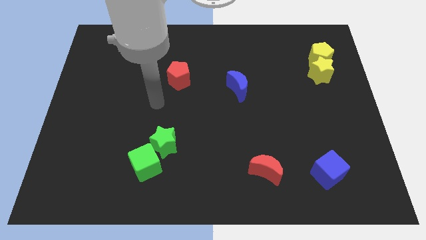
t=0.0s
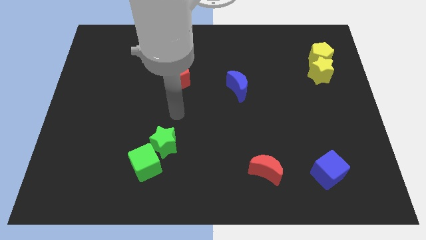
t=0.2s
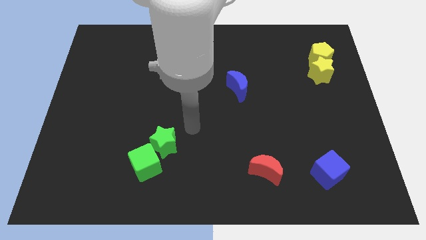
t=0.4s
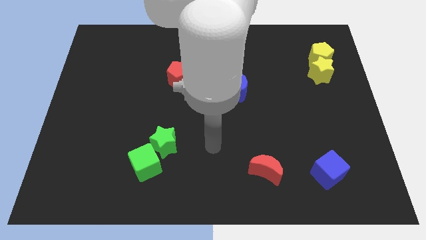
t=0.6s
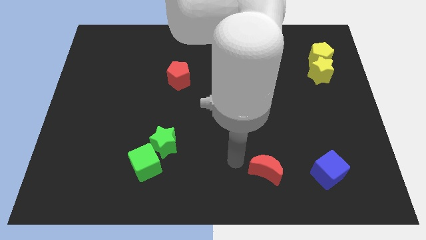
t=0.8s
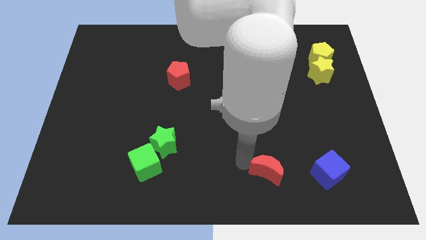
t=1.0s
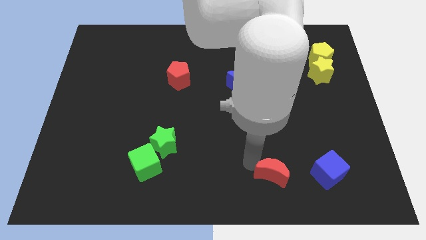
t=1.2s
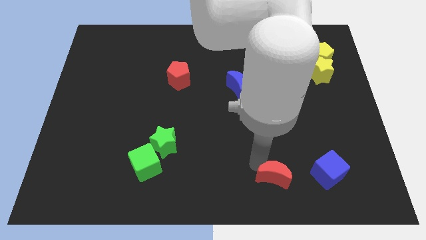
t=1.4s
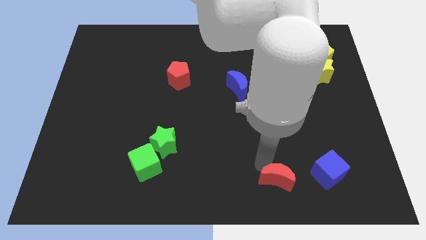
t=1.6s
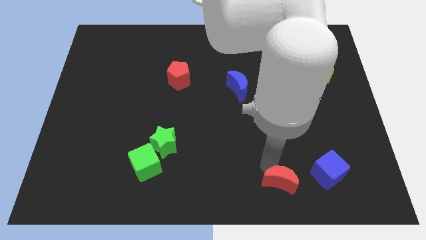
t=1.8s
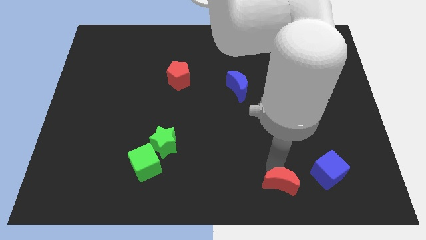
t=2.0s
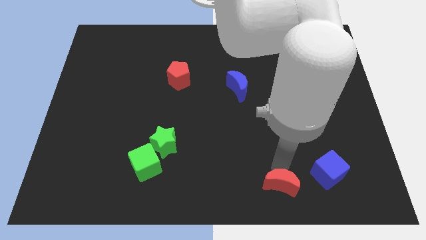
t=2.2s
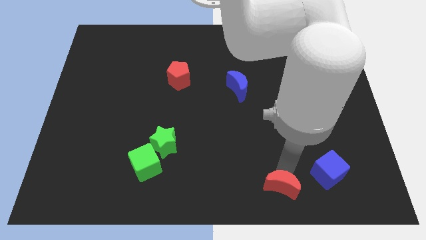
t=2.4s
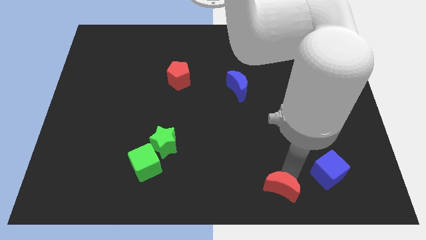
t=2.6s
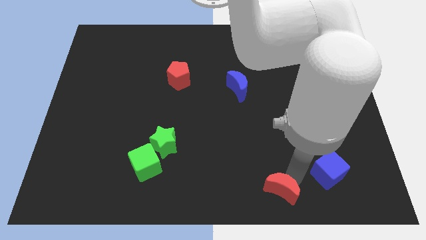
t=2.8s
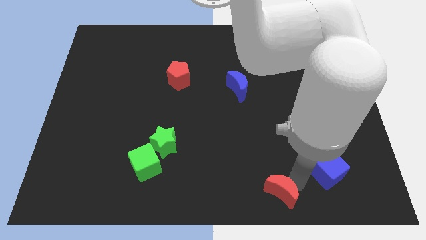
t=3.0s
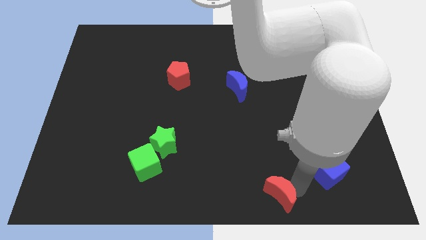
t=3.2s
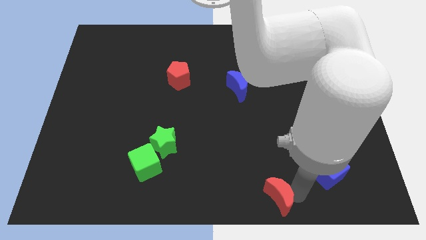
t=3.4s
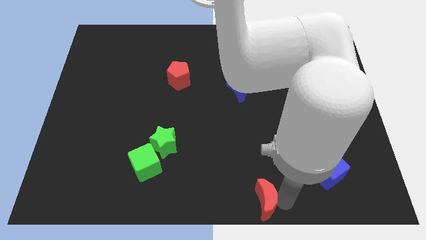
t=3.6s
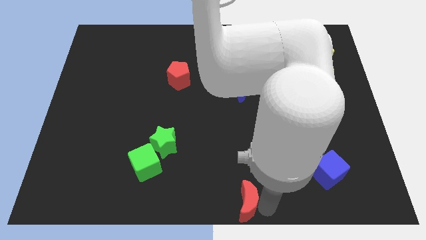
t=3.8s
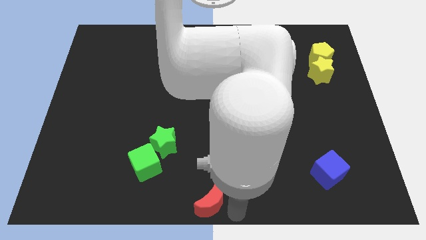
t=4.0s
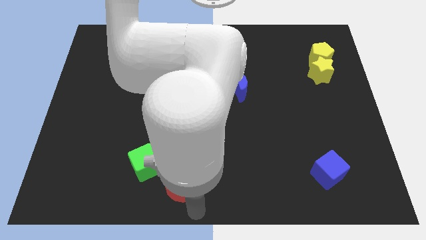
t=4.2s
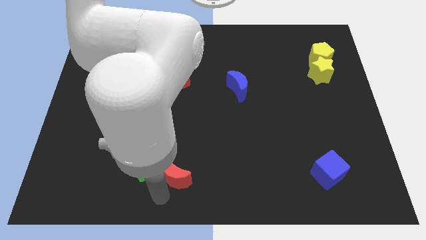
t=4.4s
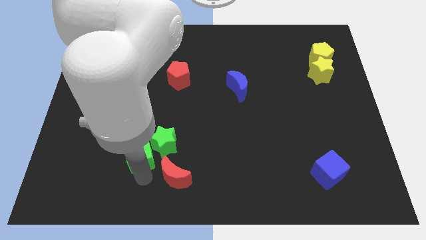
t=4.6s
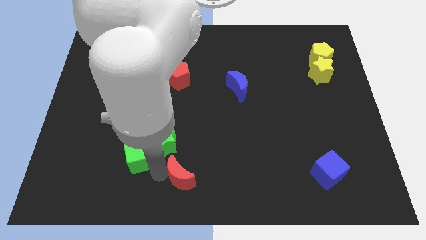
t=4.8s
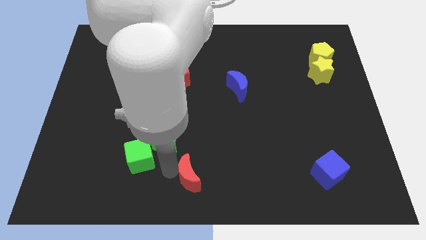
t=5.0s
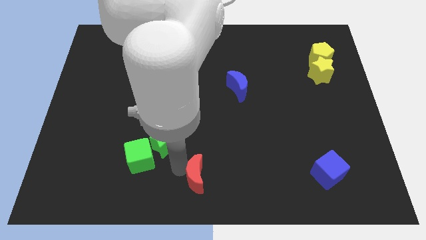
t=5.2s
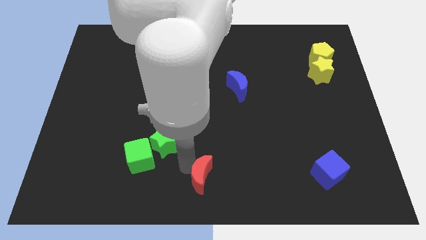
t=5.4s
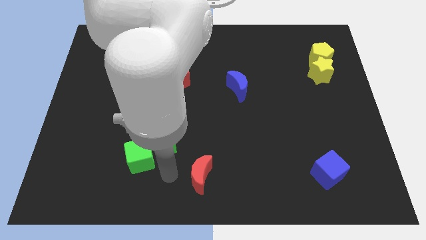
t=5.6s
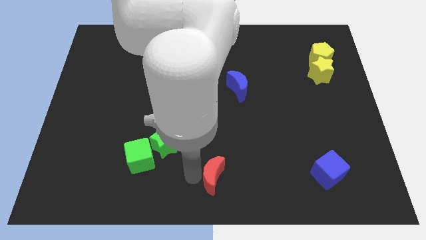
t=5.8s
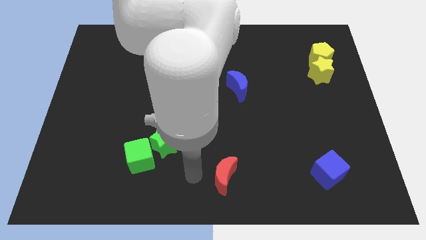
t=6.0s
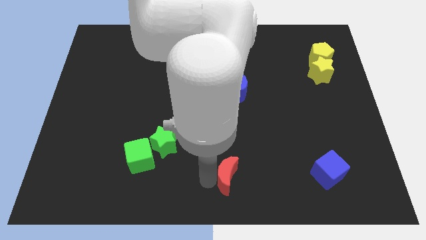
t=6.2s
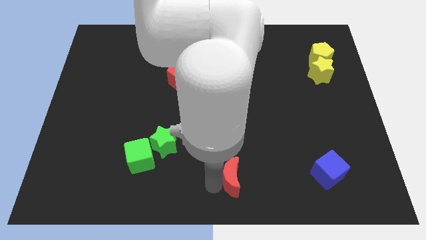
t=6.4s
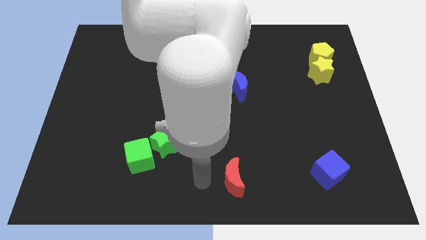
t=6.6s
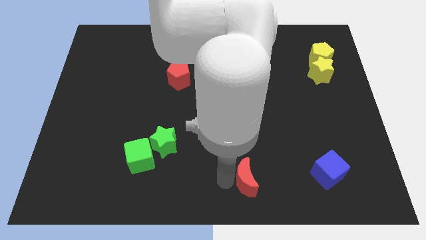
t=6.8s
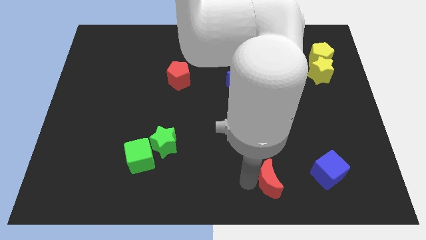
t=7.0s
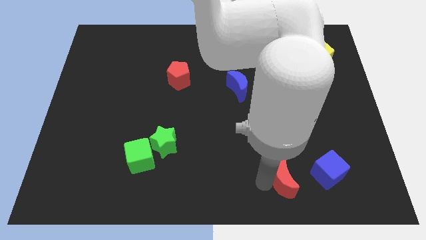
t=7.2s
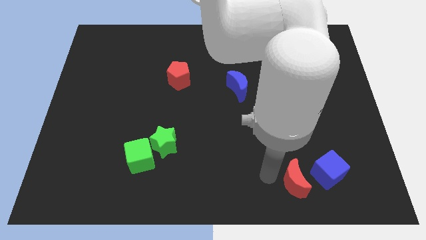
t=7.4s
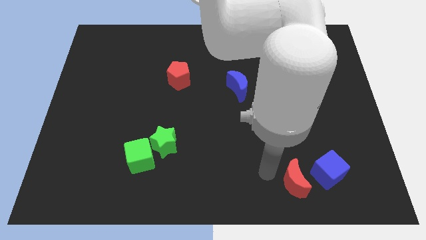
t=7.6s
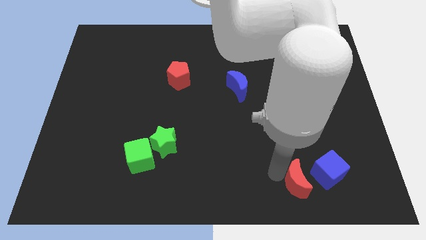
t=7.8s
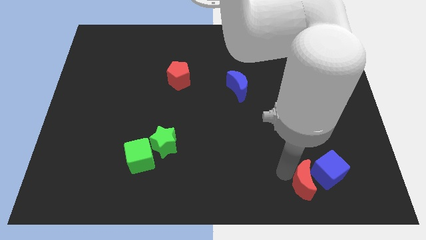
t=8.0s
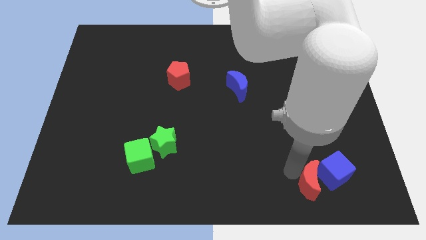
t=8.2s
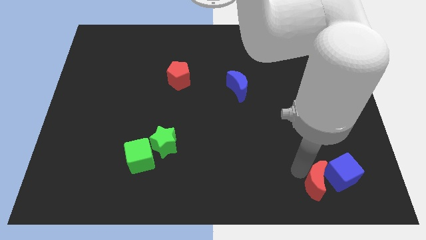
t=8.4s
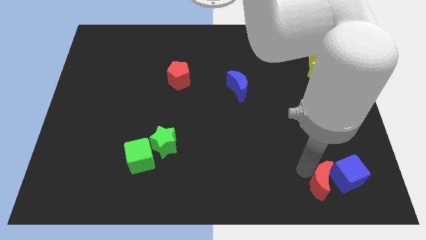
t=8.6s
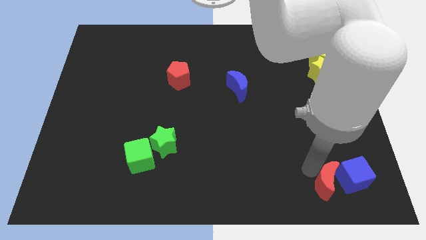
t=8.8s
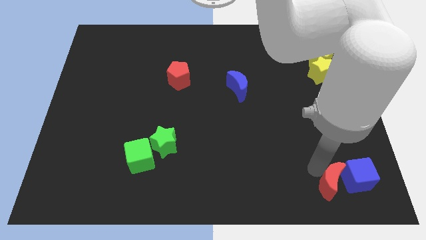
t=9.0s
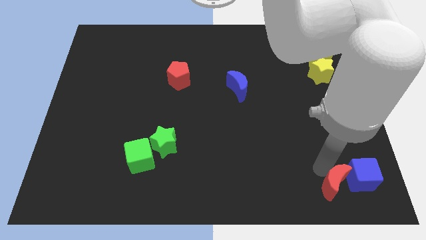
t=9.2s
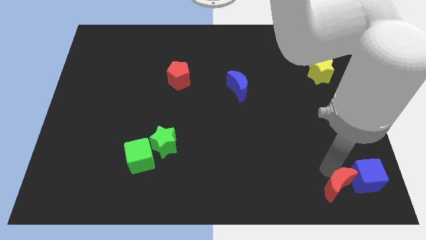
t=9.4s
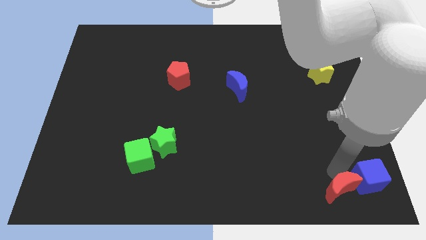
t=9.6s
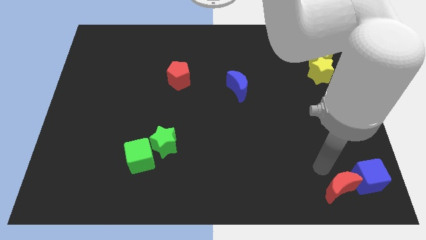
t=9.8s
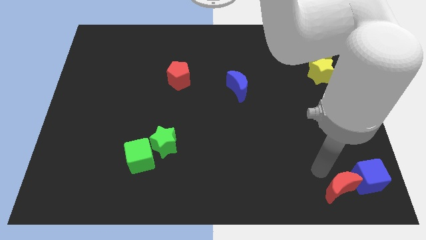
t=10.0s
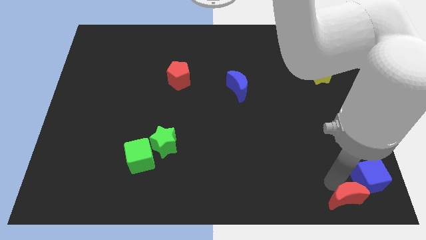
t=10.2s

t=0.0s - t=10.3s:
slide the red moon to the bottom right corner

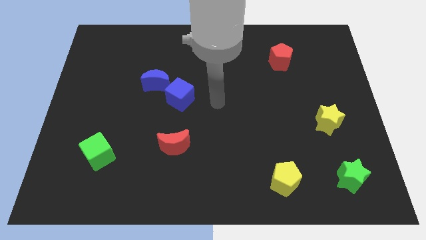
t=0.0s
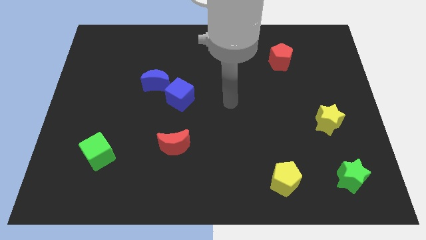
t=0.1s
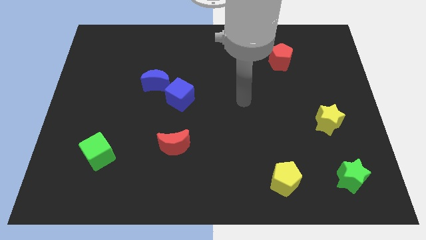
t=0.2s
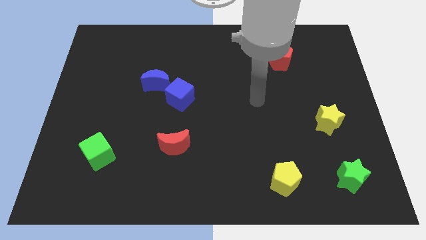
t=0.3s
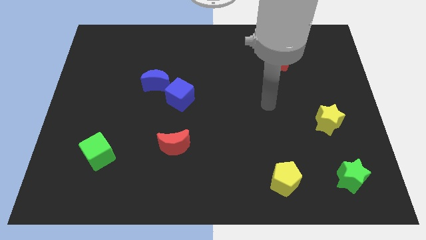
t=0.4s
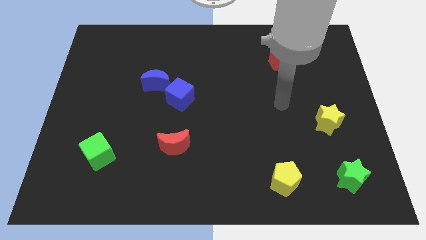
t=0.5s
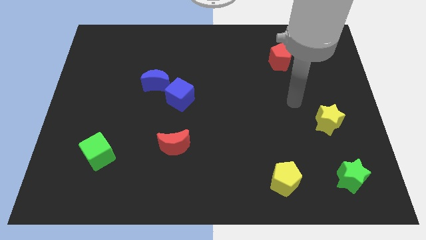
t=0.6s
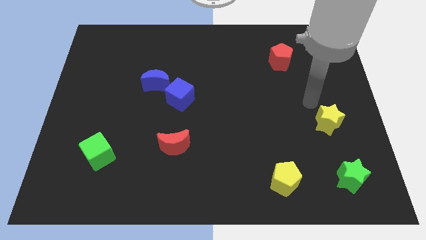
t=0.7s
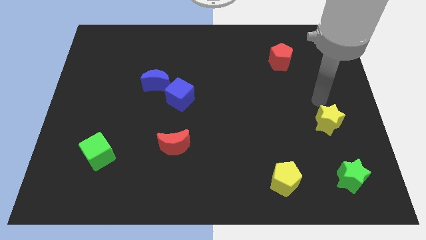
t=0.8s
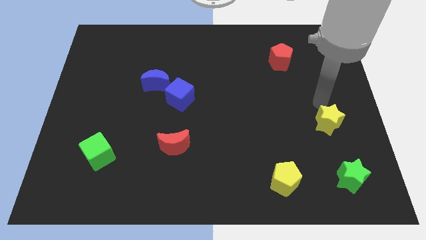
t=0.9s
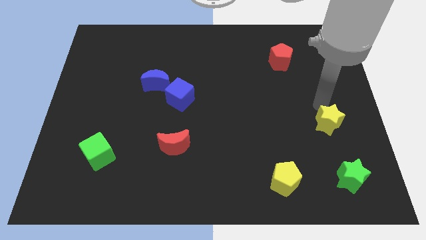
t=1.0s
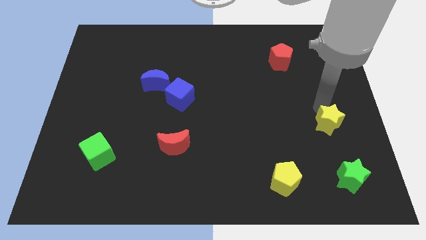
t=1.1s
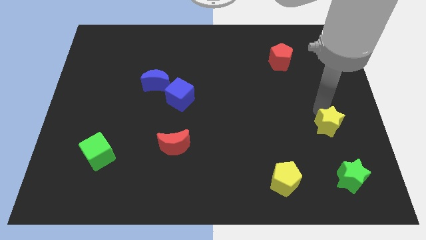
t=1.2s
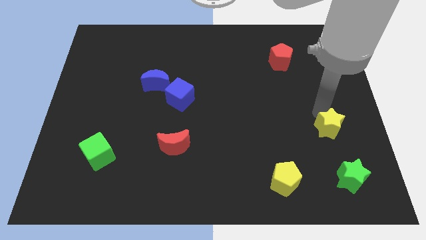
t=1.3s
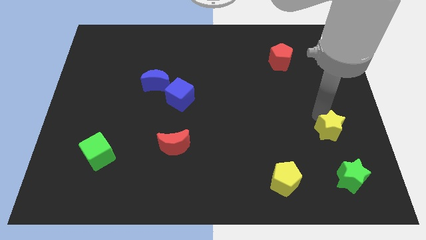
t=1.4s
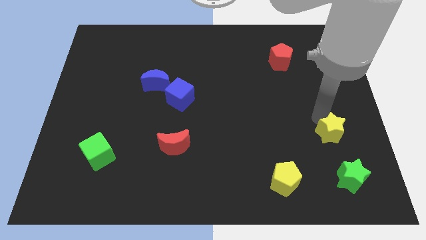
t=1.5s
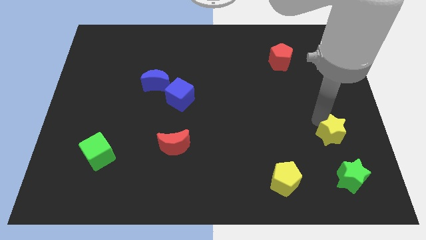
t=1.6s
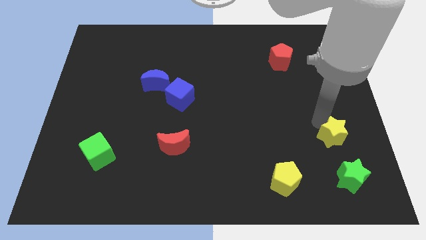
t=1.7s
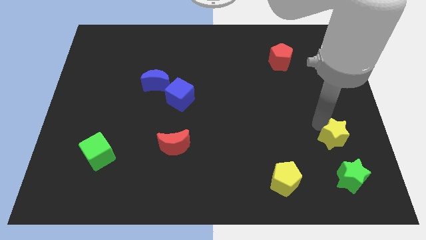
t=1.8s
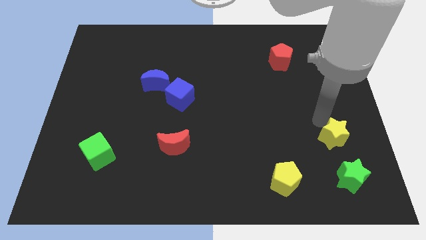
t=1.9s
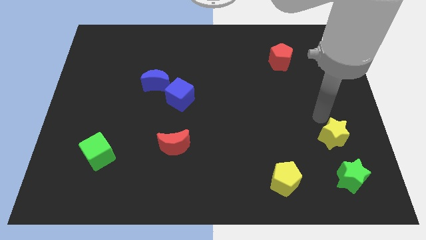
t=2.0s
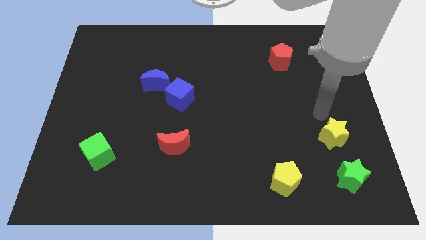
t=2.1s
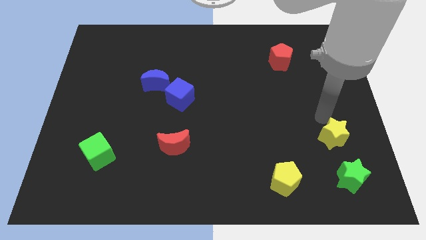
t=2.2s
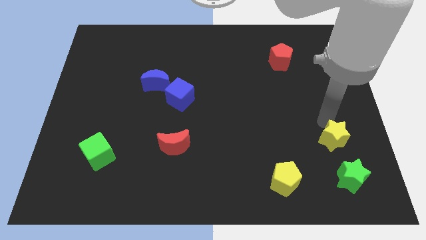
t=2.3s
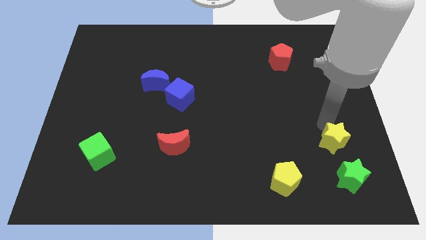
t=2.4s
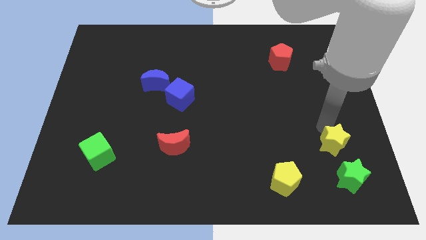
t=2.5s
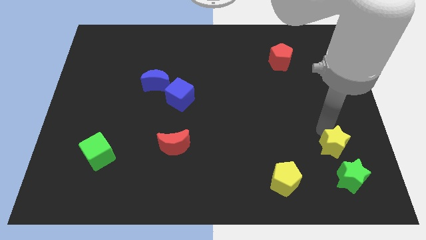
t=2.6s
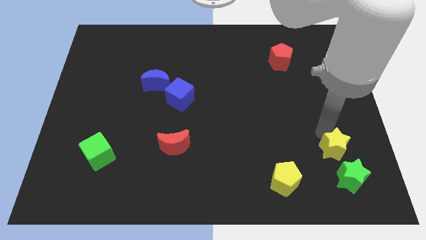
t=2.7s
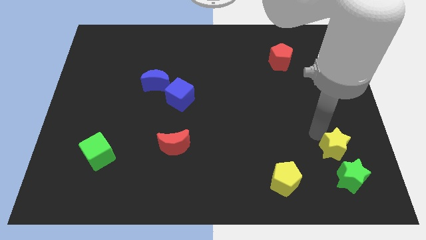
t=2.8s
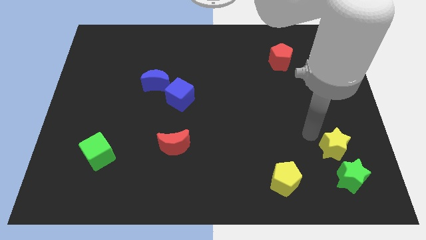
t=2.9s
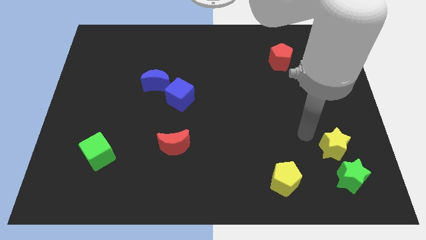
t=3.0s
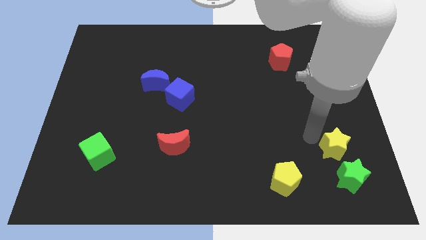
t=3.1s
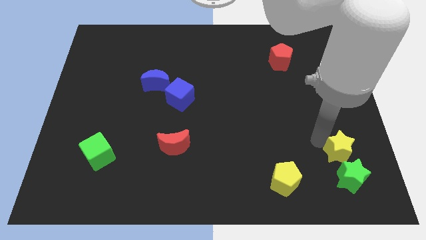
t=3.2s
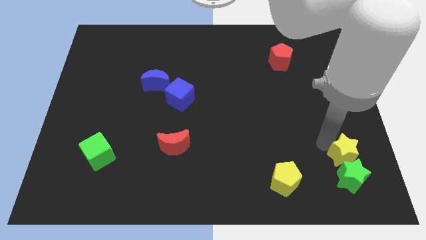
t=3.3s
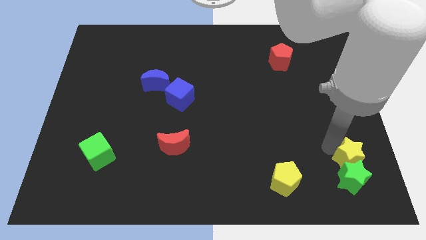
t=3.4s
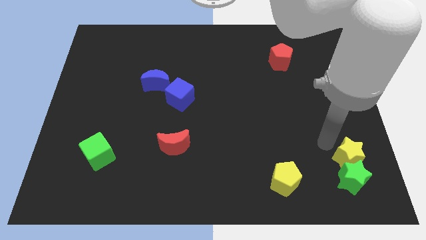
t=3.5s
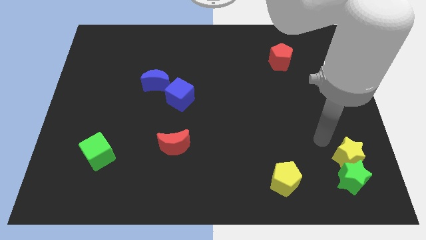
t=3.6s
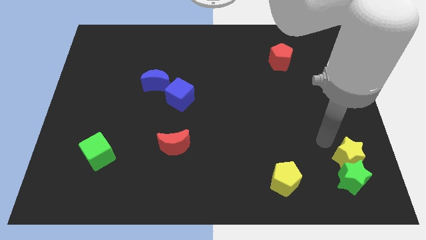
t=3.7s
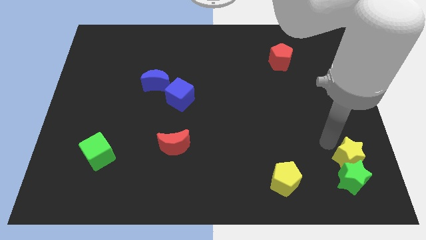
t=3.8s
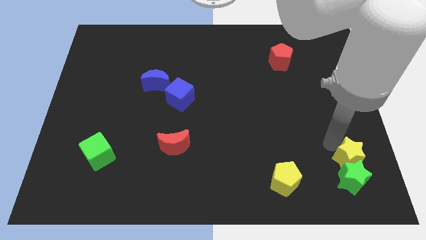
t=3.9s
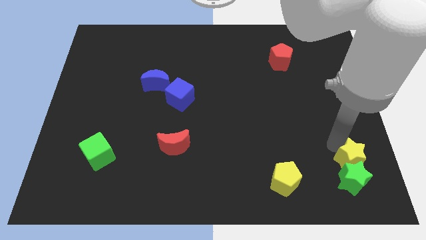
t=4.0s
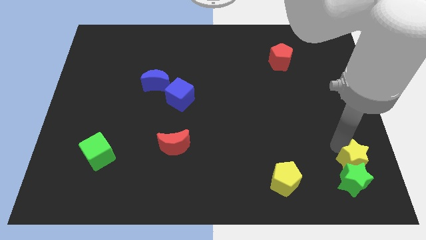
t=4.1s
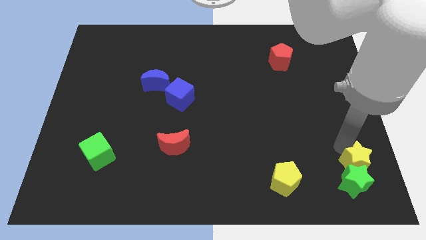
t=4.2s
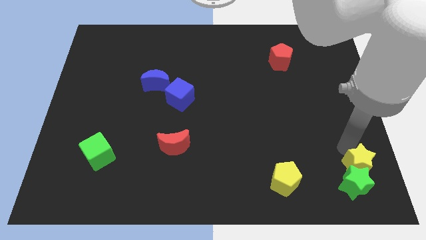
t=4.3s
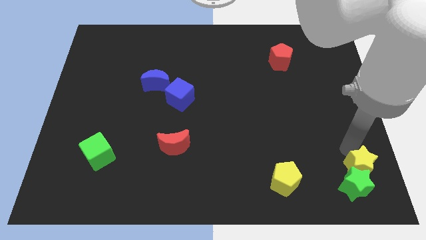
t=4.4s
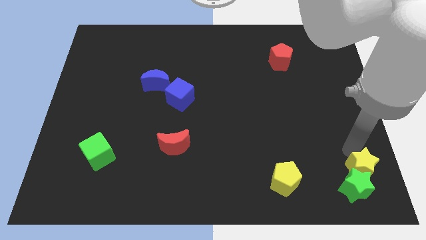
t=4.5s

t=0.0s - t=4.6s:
slide the yellow star to the bottom right of the board
